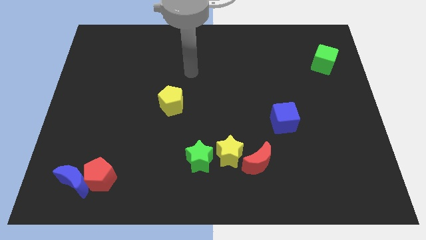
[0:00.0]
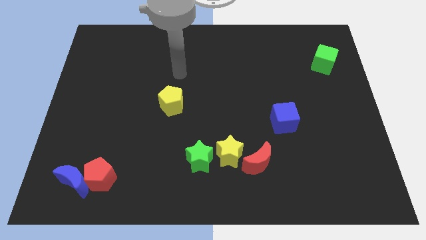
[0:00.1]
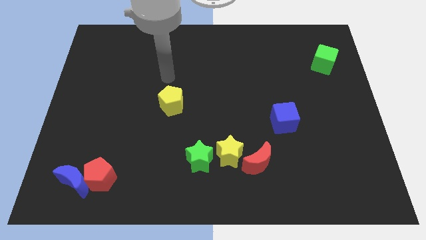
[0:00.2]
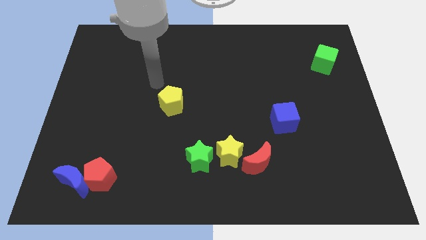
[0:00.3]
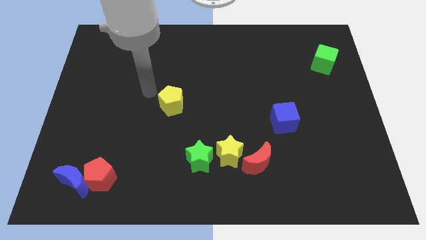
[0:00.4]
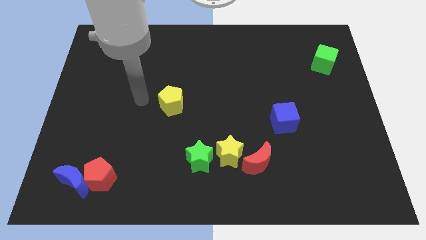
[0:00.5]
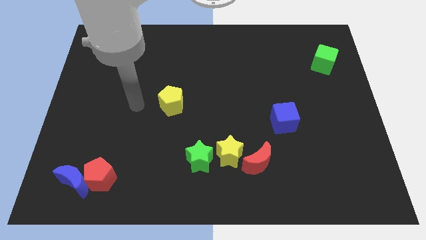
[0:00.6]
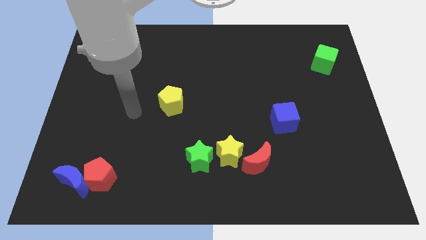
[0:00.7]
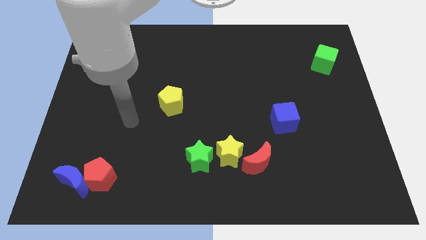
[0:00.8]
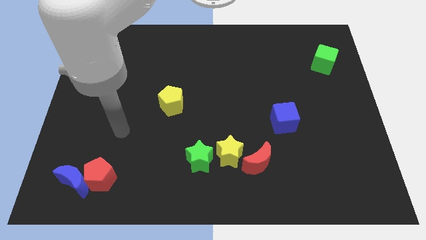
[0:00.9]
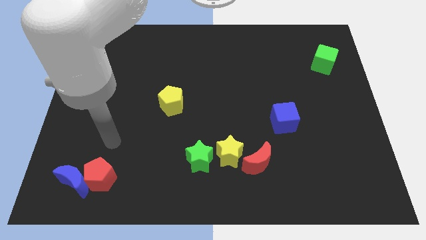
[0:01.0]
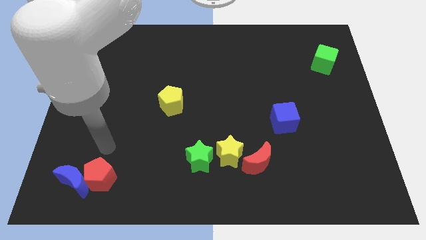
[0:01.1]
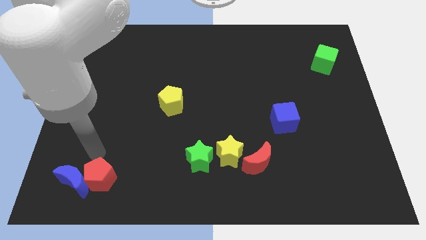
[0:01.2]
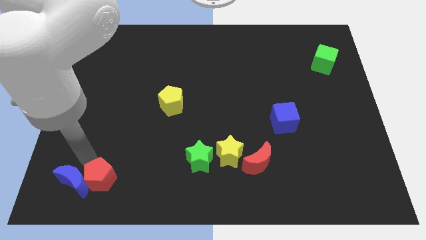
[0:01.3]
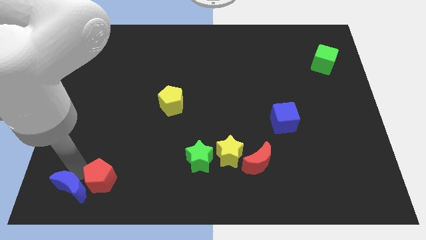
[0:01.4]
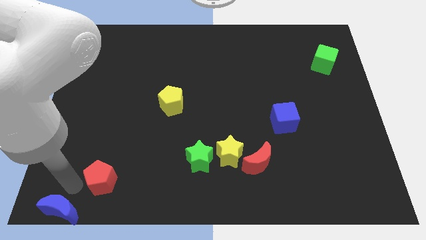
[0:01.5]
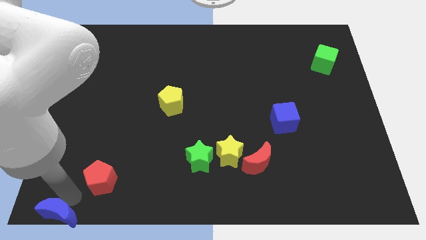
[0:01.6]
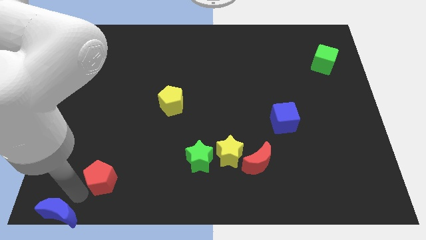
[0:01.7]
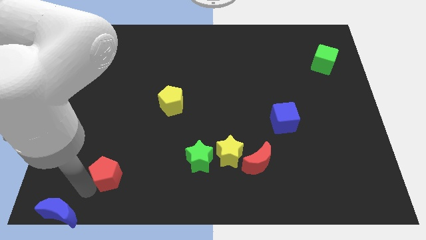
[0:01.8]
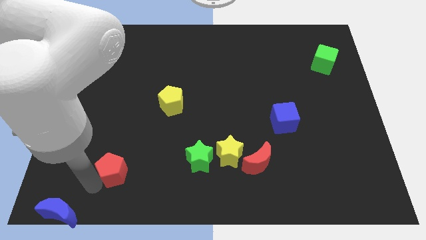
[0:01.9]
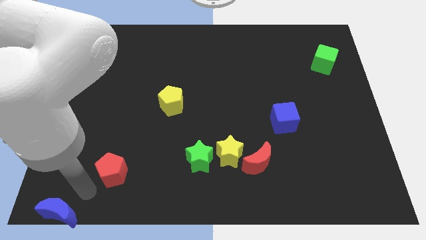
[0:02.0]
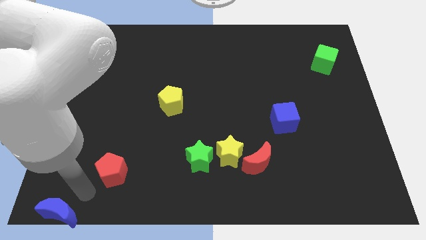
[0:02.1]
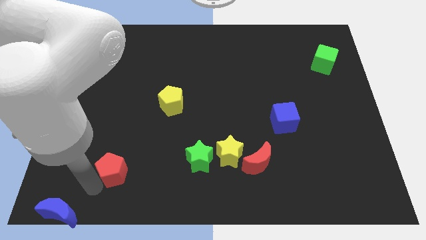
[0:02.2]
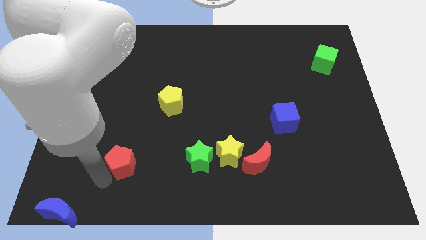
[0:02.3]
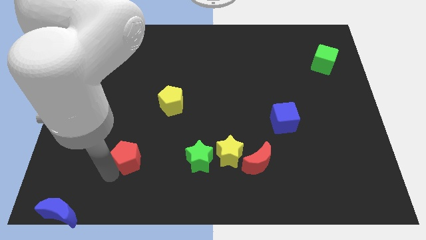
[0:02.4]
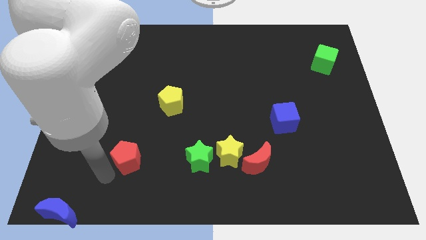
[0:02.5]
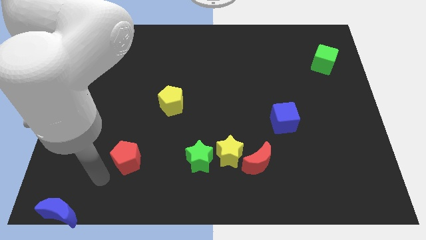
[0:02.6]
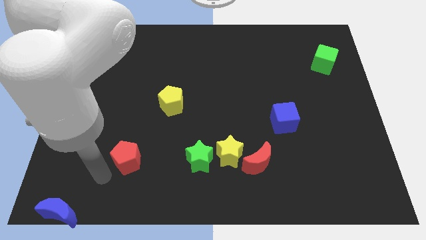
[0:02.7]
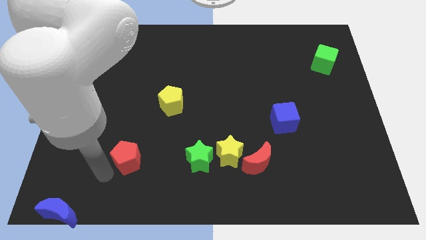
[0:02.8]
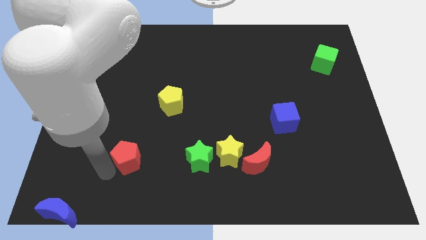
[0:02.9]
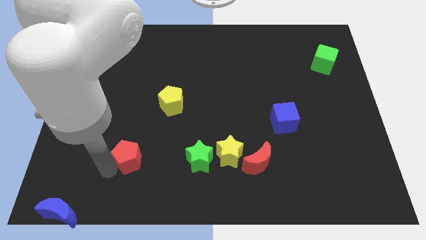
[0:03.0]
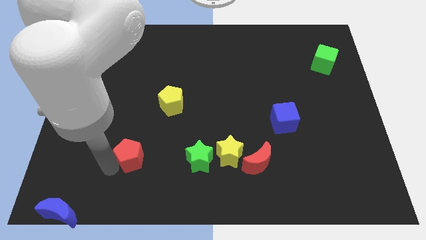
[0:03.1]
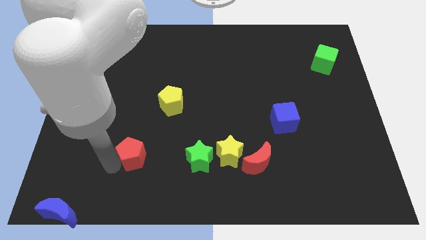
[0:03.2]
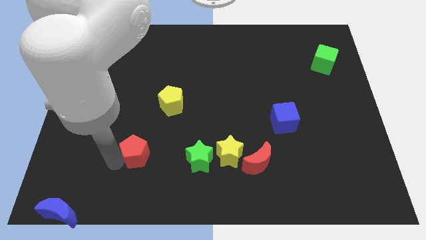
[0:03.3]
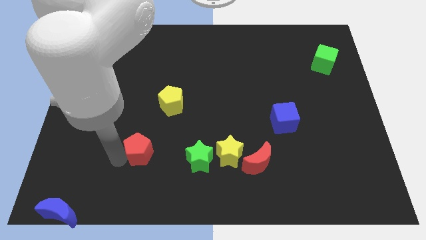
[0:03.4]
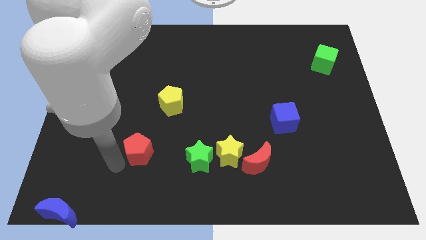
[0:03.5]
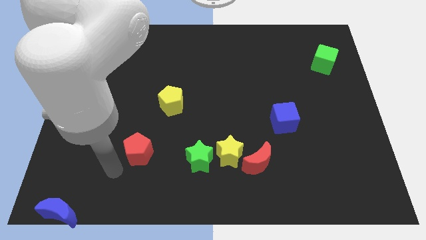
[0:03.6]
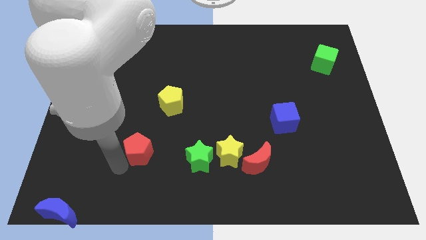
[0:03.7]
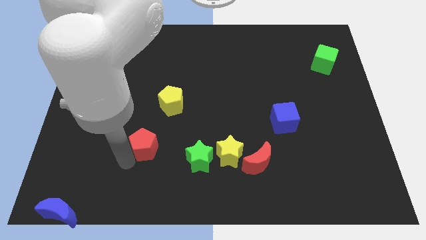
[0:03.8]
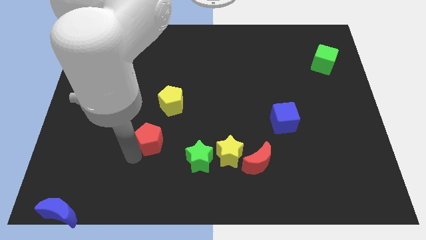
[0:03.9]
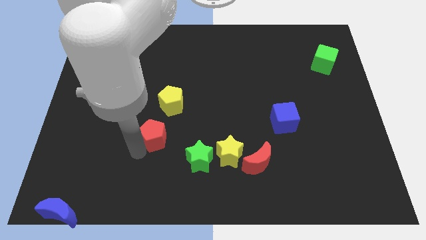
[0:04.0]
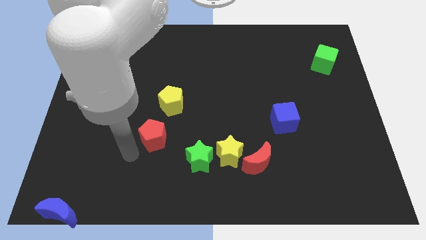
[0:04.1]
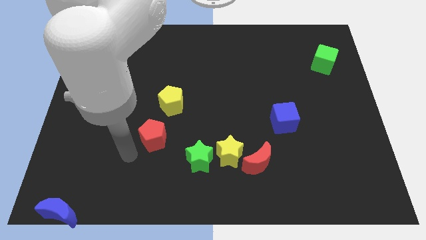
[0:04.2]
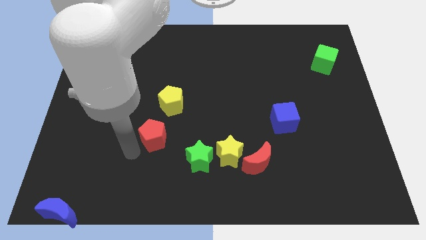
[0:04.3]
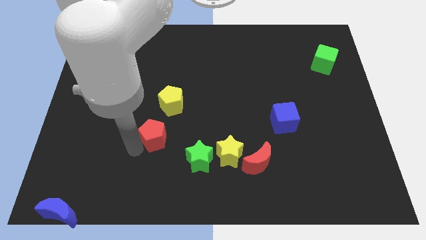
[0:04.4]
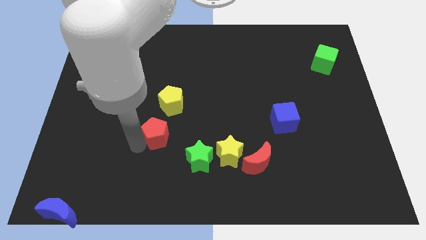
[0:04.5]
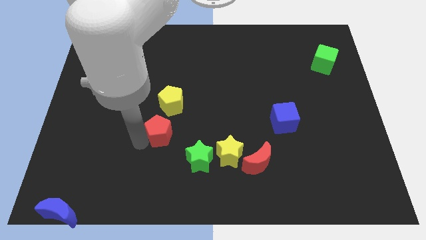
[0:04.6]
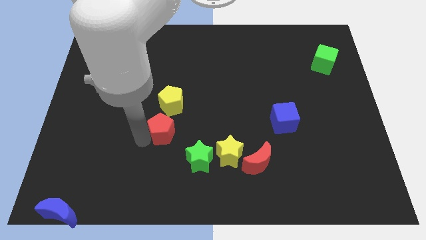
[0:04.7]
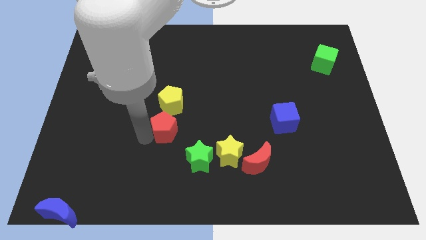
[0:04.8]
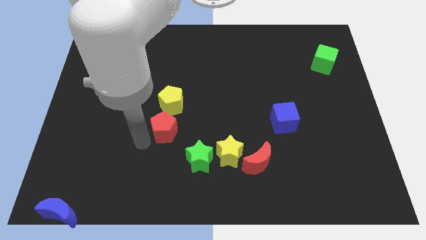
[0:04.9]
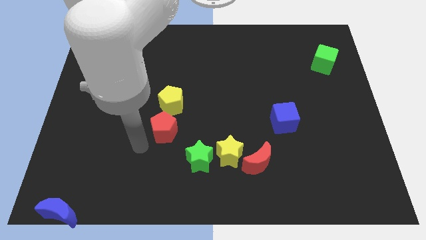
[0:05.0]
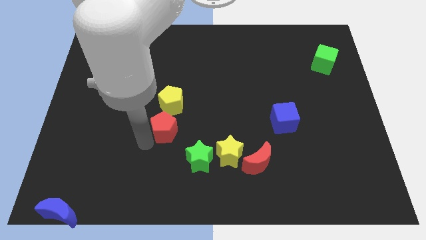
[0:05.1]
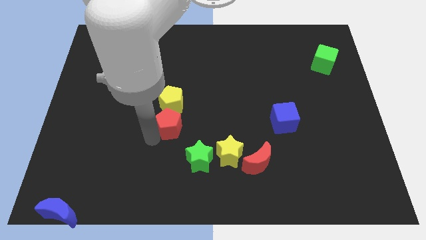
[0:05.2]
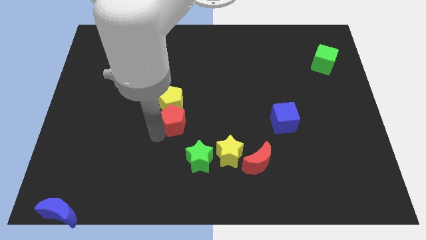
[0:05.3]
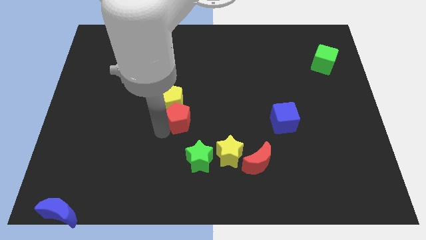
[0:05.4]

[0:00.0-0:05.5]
push the red pentagon up and then right

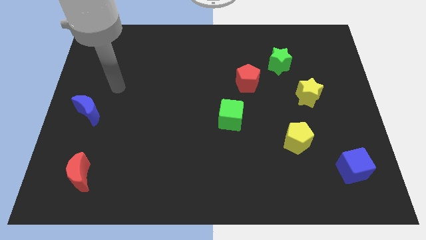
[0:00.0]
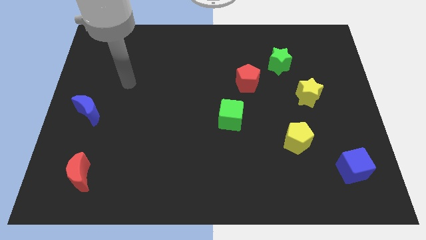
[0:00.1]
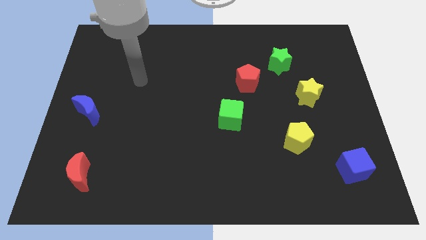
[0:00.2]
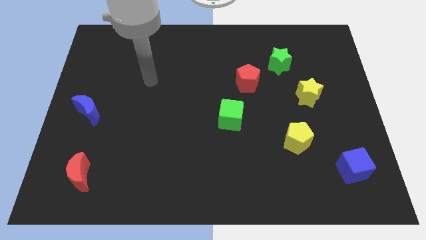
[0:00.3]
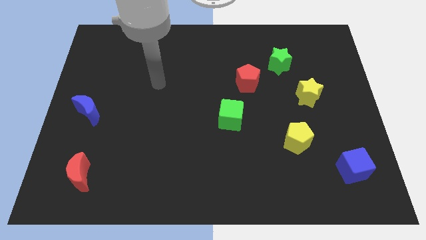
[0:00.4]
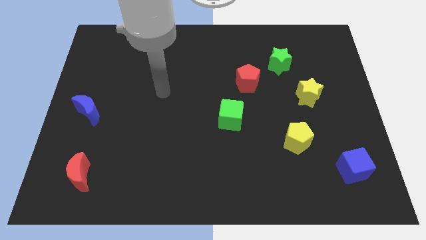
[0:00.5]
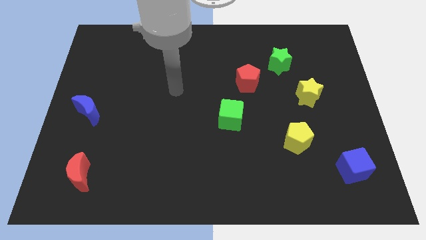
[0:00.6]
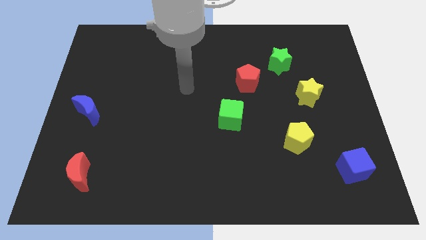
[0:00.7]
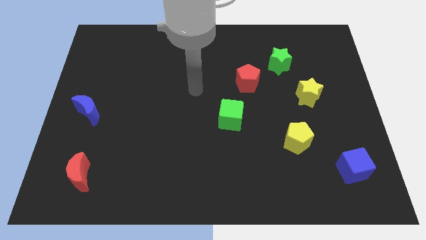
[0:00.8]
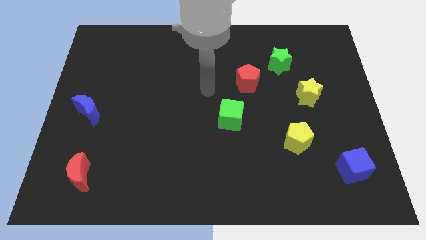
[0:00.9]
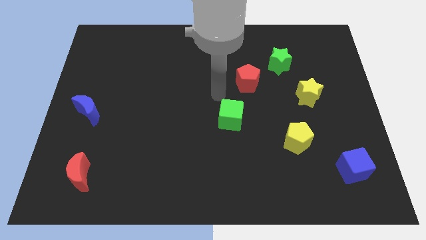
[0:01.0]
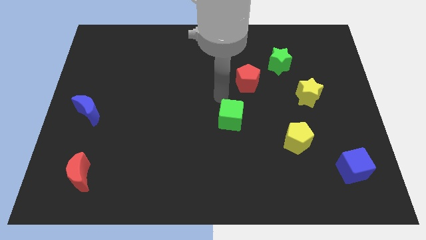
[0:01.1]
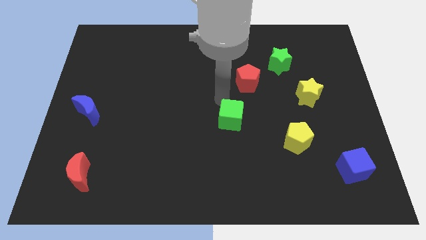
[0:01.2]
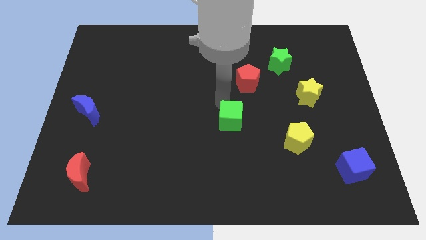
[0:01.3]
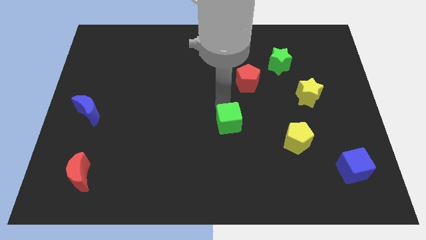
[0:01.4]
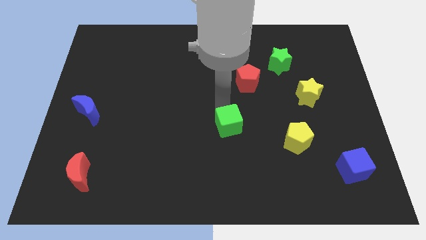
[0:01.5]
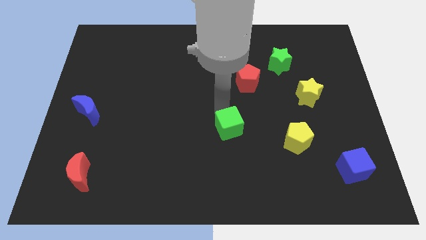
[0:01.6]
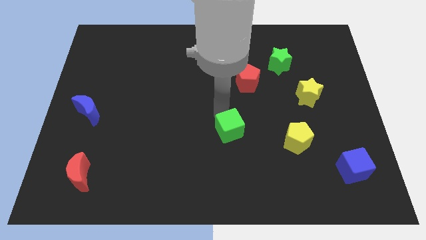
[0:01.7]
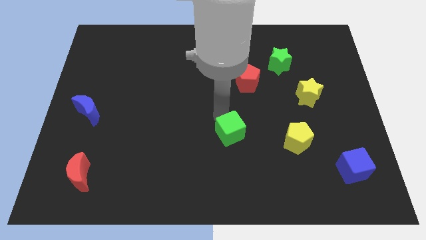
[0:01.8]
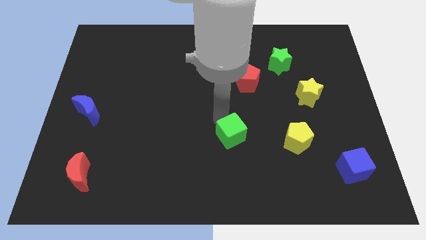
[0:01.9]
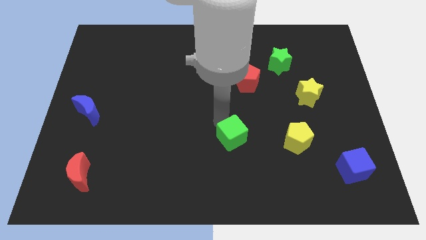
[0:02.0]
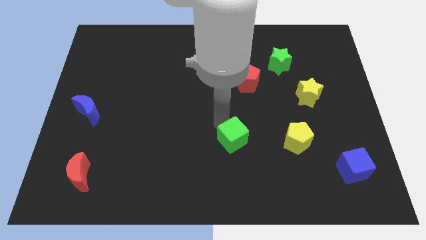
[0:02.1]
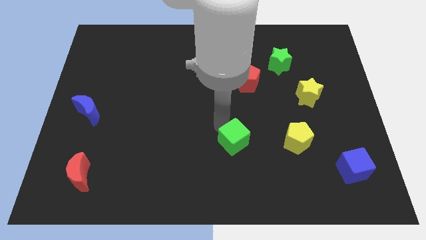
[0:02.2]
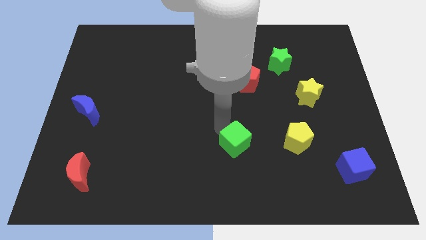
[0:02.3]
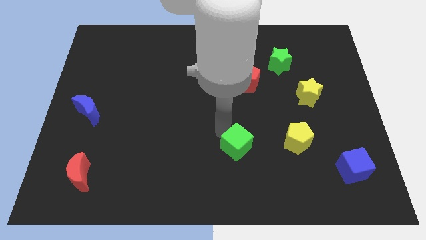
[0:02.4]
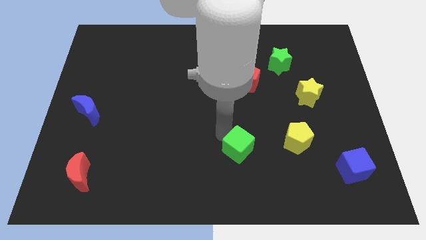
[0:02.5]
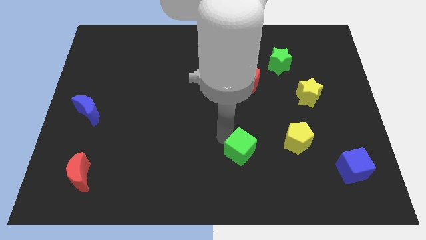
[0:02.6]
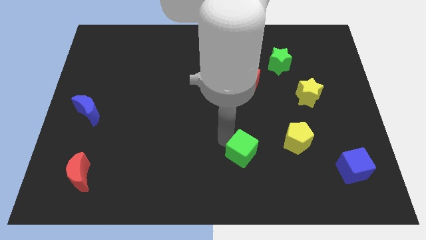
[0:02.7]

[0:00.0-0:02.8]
move the green cube down and then to the right a little bit
